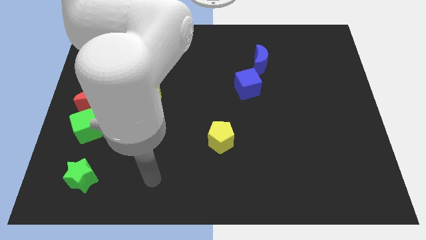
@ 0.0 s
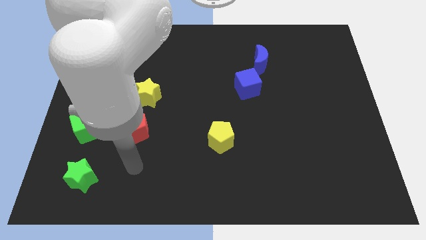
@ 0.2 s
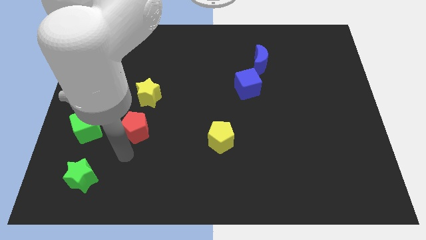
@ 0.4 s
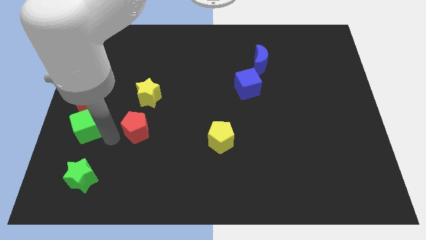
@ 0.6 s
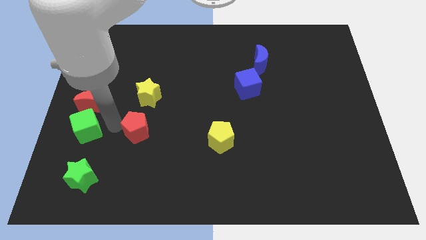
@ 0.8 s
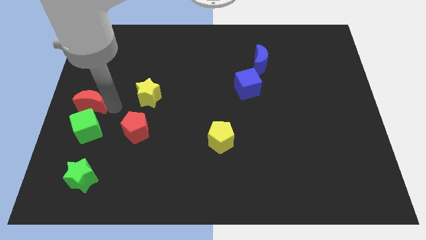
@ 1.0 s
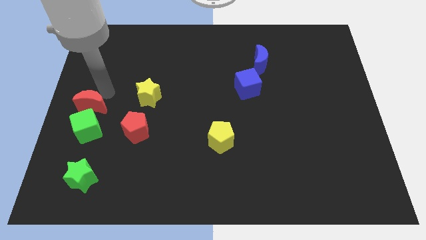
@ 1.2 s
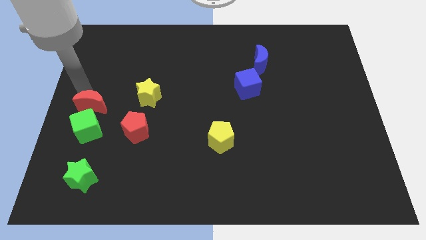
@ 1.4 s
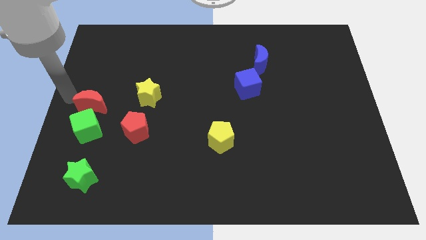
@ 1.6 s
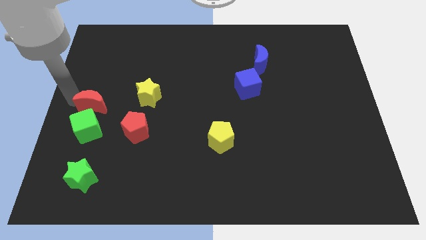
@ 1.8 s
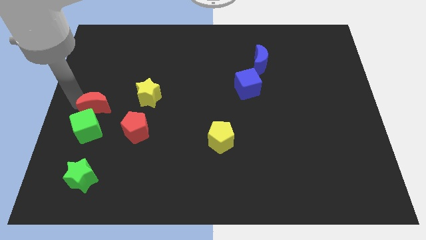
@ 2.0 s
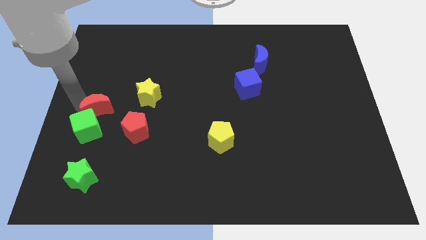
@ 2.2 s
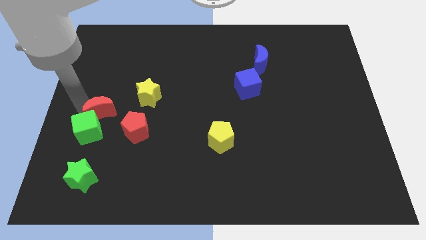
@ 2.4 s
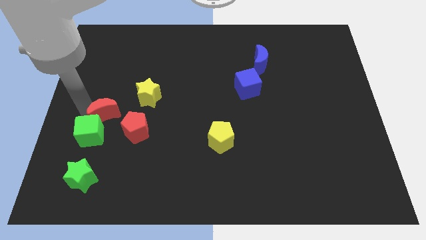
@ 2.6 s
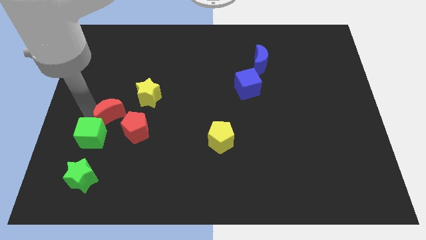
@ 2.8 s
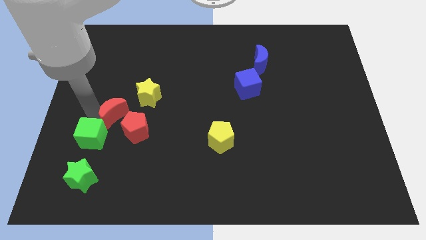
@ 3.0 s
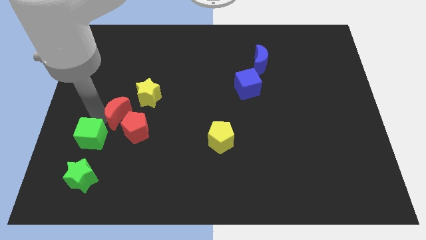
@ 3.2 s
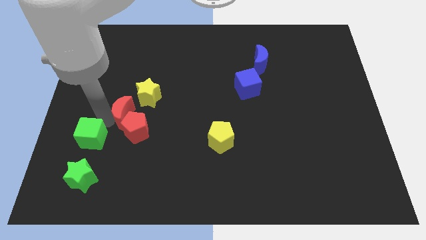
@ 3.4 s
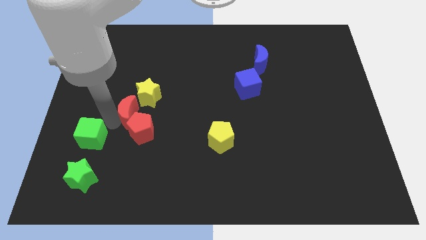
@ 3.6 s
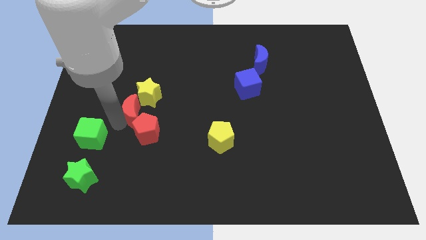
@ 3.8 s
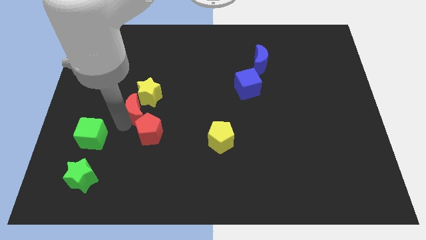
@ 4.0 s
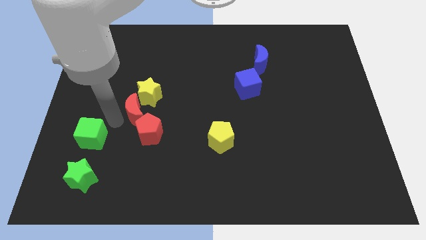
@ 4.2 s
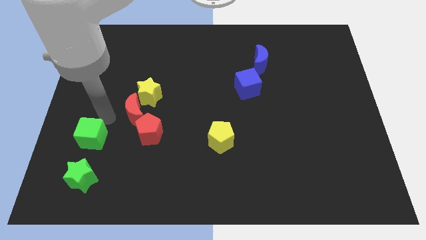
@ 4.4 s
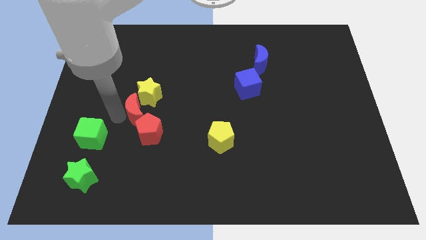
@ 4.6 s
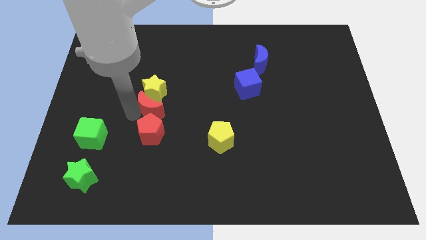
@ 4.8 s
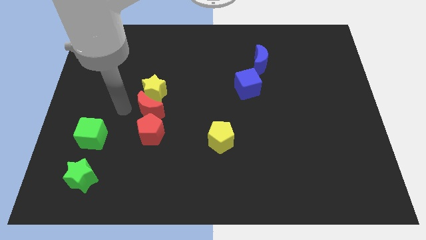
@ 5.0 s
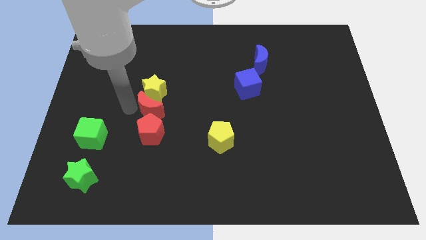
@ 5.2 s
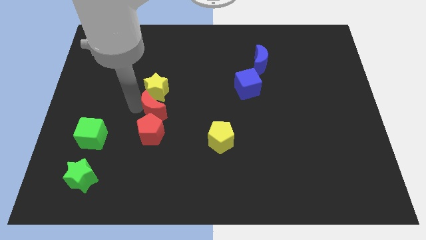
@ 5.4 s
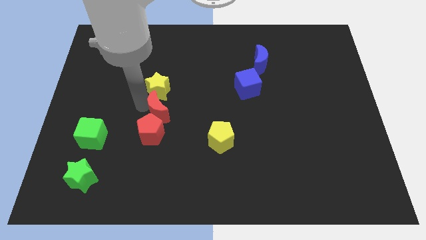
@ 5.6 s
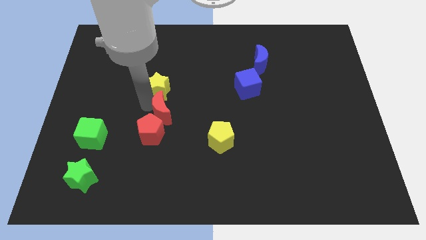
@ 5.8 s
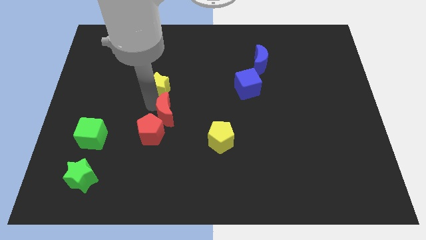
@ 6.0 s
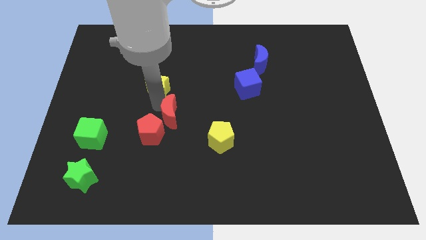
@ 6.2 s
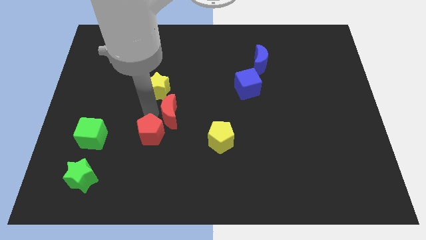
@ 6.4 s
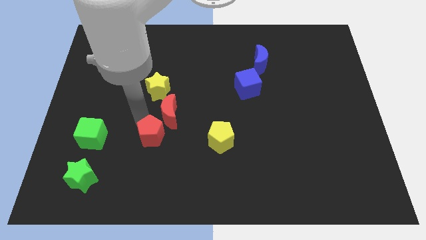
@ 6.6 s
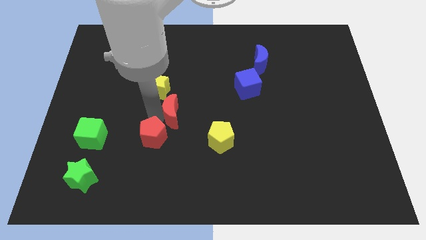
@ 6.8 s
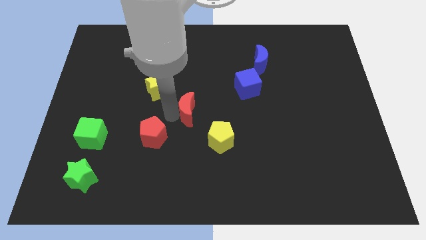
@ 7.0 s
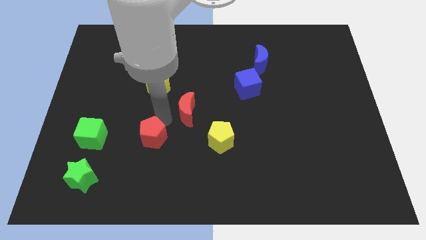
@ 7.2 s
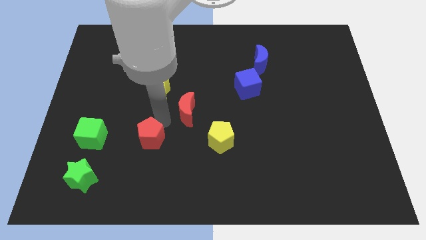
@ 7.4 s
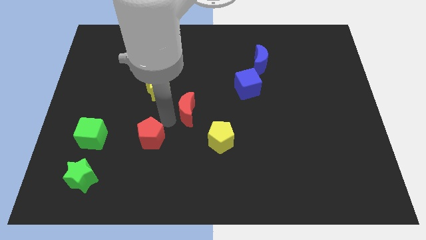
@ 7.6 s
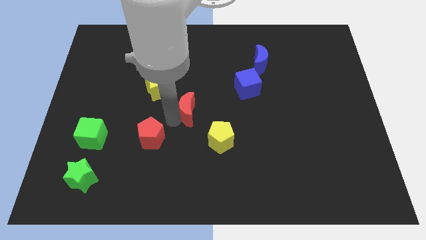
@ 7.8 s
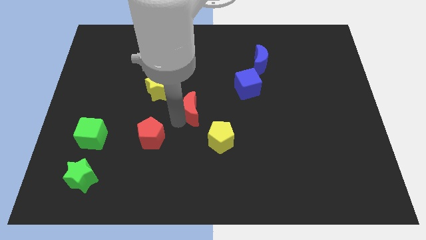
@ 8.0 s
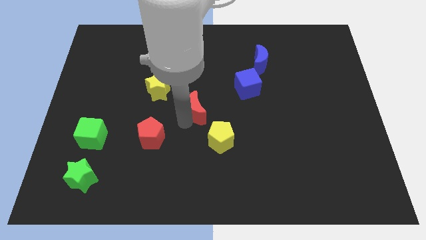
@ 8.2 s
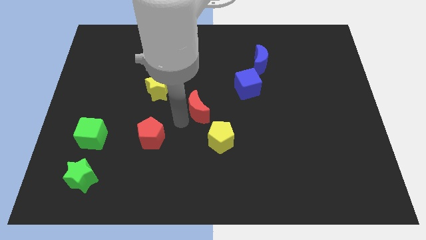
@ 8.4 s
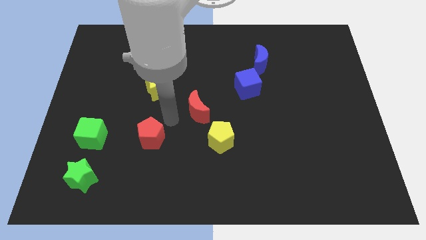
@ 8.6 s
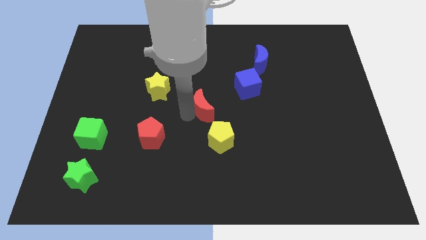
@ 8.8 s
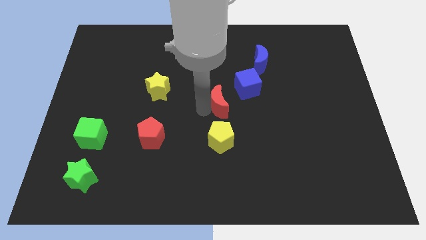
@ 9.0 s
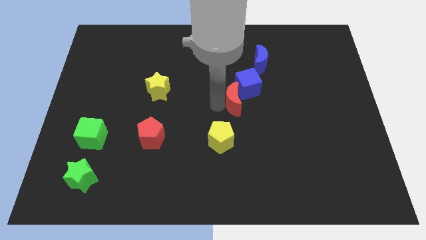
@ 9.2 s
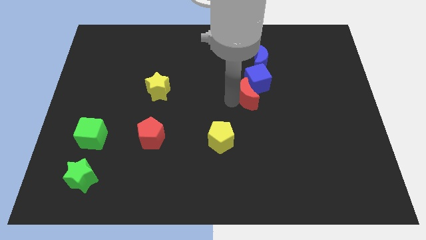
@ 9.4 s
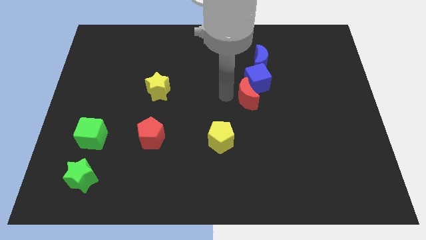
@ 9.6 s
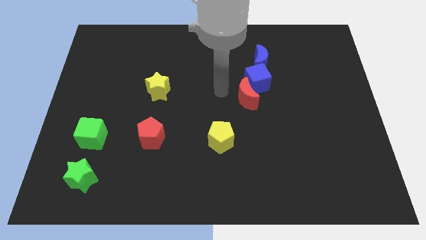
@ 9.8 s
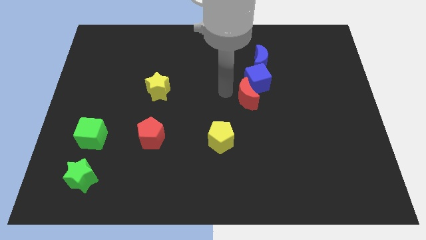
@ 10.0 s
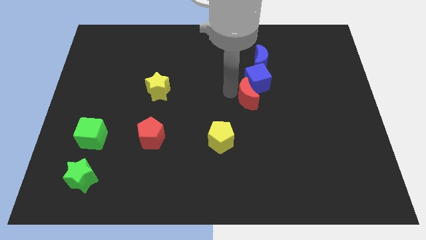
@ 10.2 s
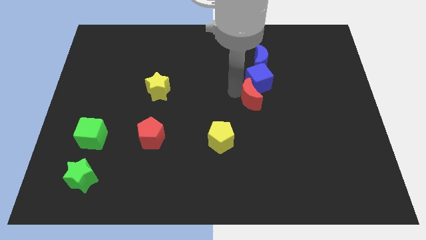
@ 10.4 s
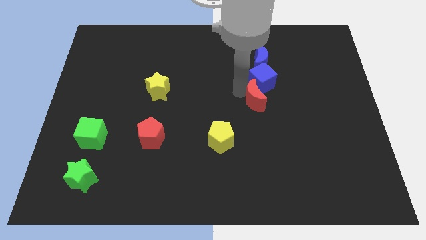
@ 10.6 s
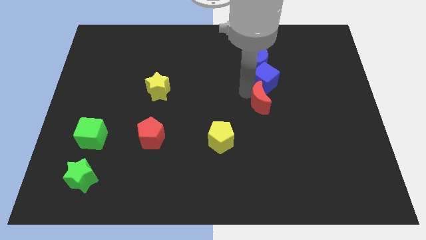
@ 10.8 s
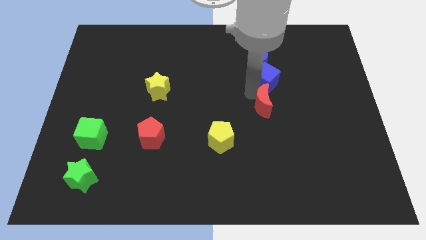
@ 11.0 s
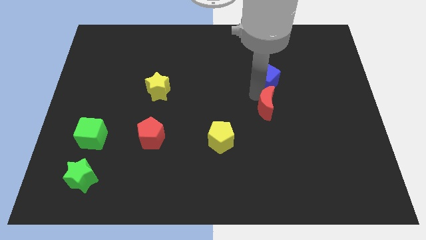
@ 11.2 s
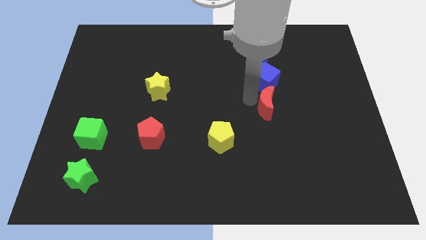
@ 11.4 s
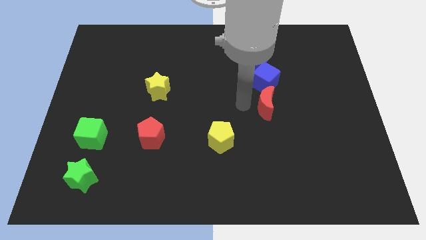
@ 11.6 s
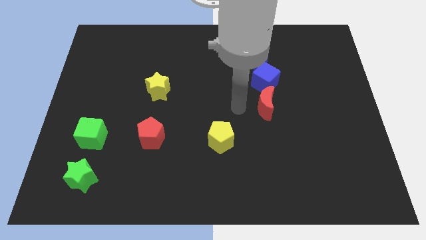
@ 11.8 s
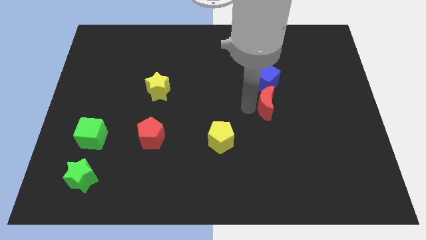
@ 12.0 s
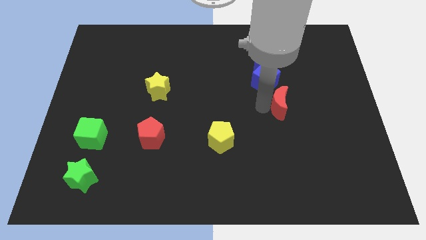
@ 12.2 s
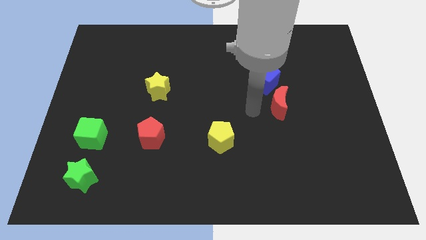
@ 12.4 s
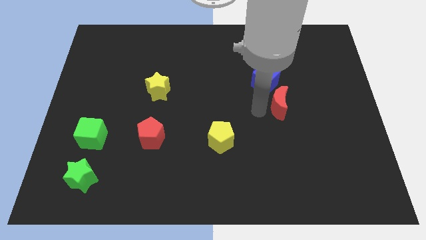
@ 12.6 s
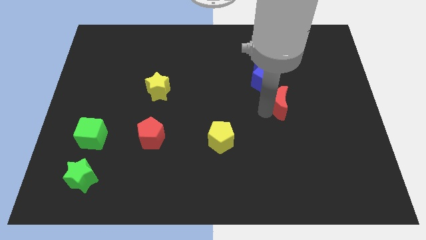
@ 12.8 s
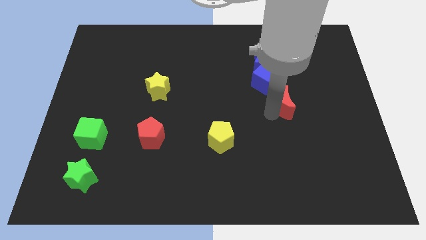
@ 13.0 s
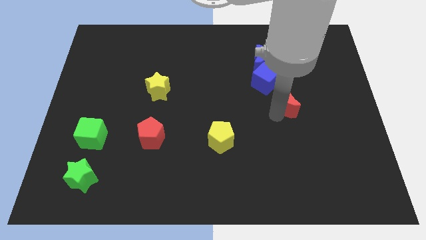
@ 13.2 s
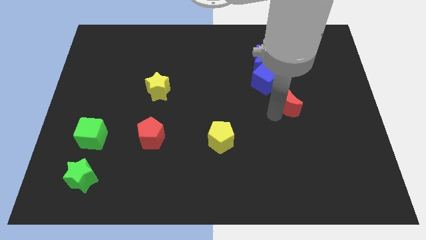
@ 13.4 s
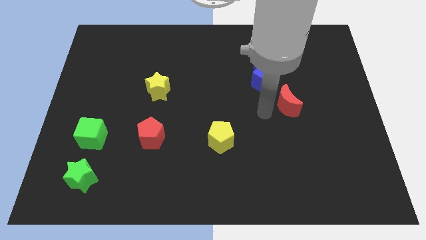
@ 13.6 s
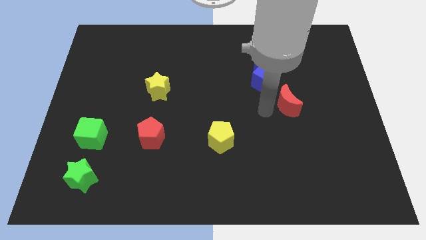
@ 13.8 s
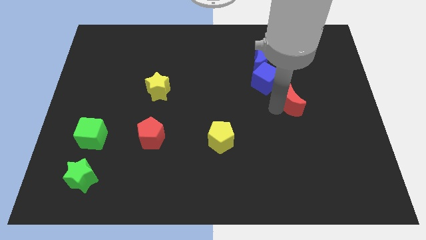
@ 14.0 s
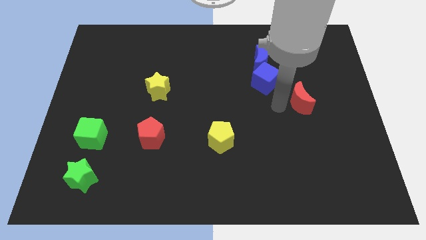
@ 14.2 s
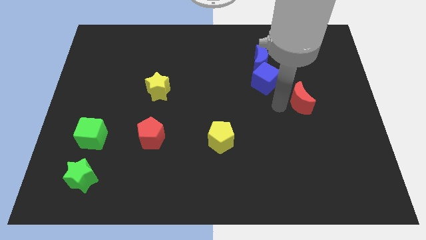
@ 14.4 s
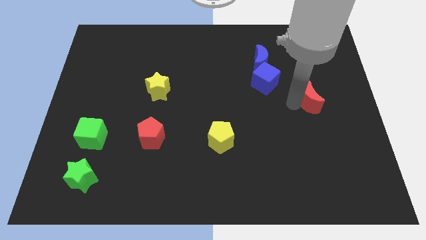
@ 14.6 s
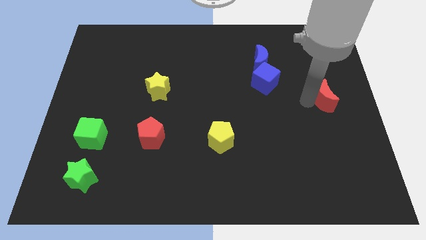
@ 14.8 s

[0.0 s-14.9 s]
put the red moon to the right side of the board
